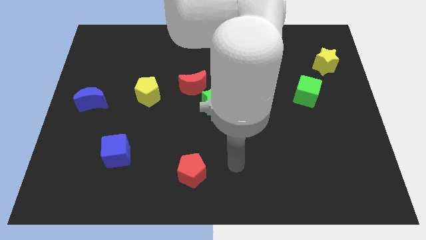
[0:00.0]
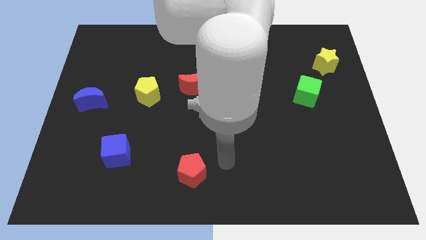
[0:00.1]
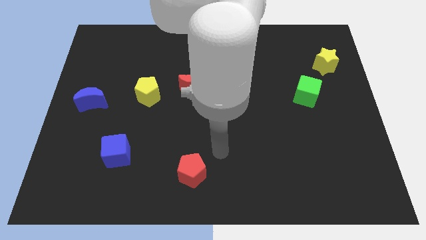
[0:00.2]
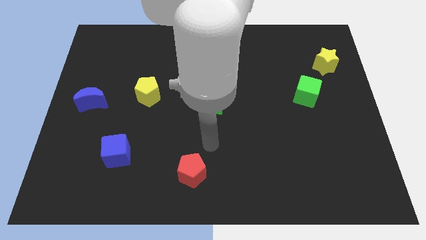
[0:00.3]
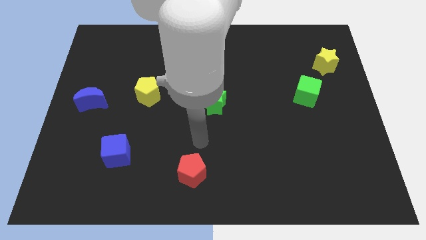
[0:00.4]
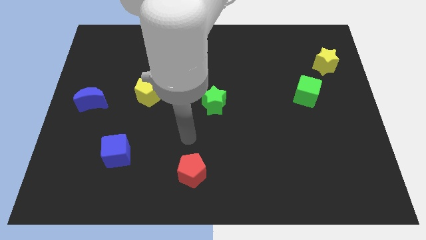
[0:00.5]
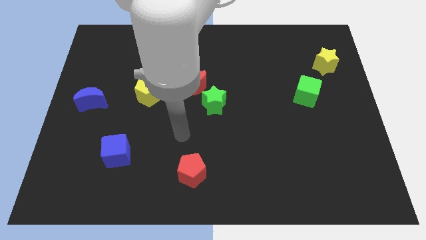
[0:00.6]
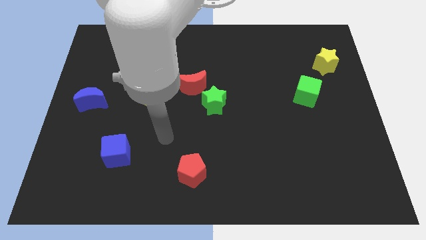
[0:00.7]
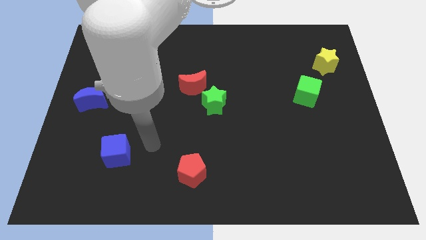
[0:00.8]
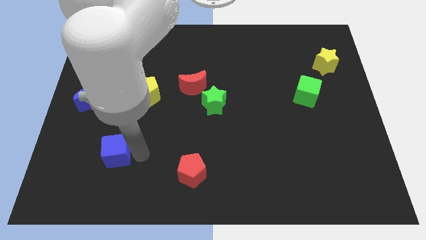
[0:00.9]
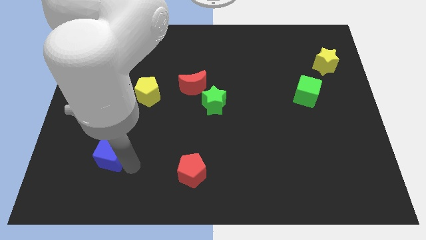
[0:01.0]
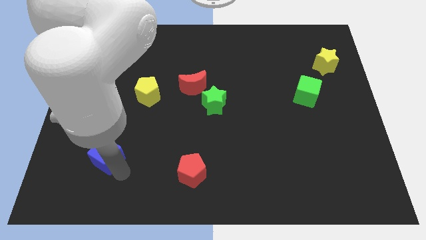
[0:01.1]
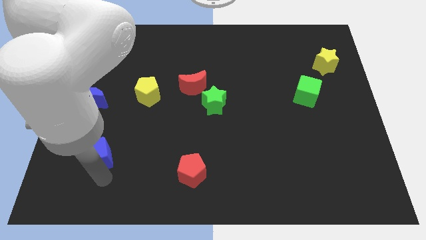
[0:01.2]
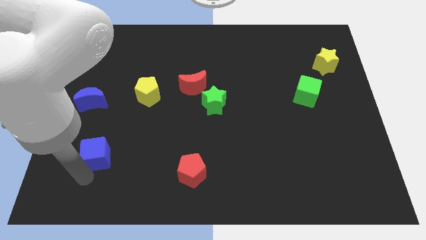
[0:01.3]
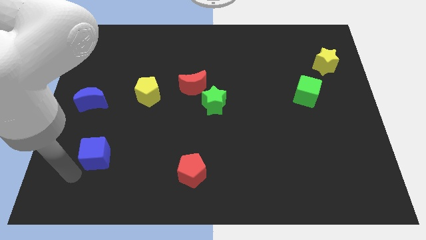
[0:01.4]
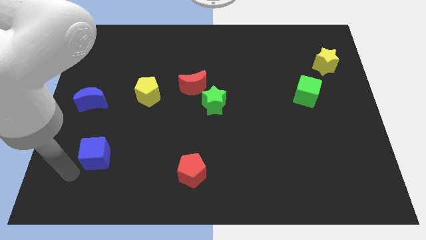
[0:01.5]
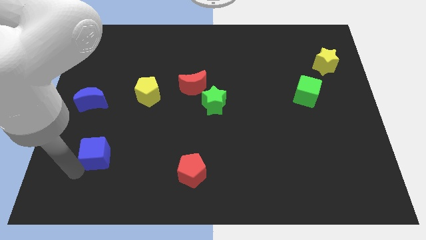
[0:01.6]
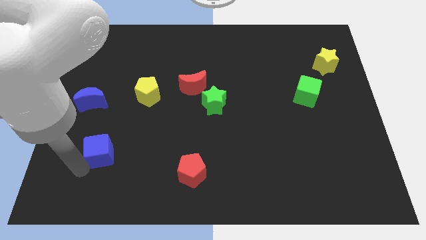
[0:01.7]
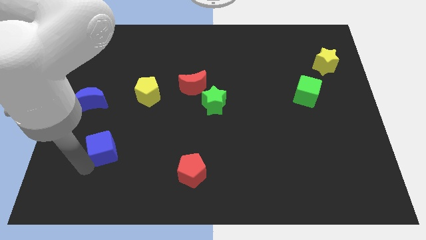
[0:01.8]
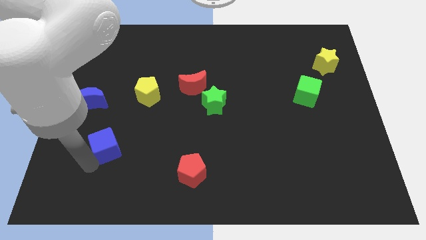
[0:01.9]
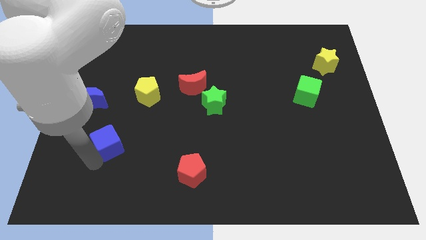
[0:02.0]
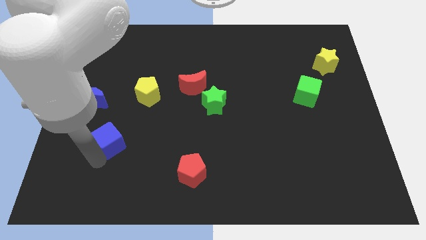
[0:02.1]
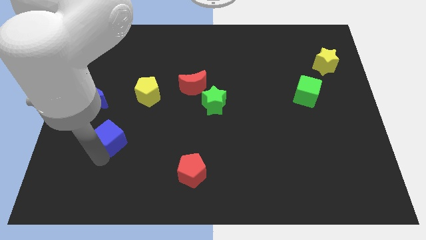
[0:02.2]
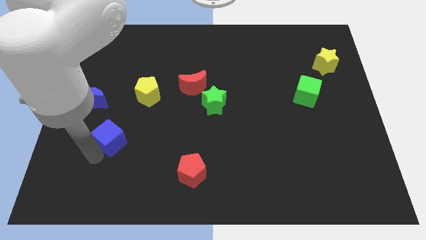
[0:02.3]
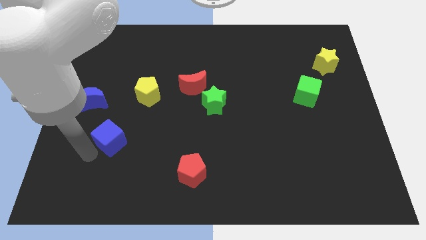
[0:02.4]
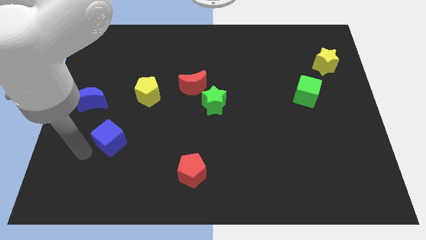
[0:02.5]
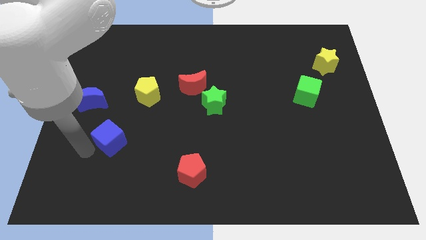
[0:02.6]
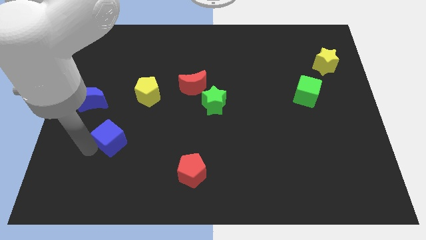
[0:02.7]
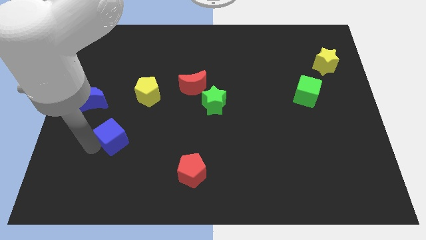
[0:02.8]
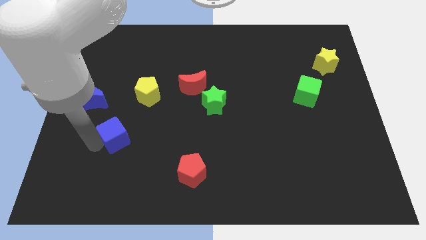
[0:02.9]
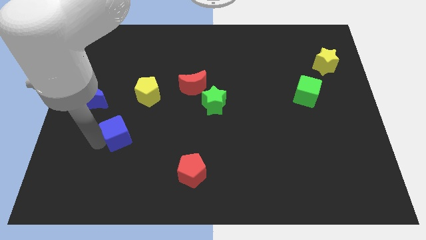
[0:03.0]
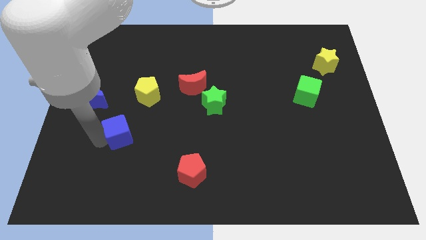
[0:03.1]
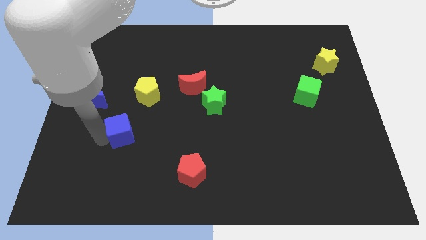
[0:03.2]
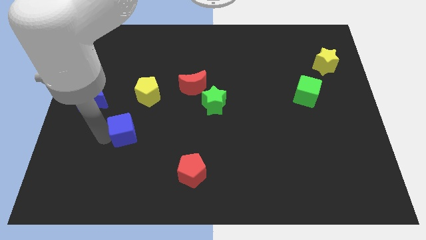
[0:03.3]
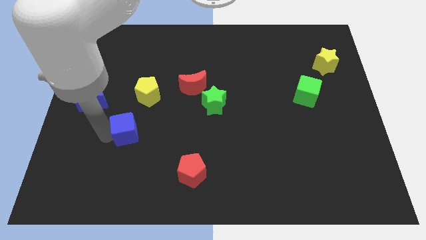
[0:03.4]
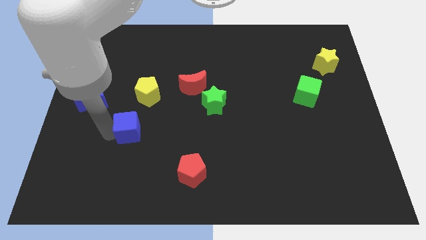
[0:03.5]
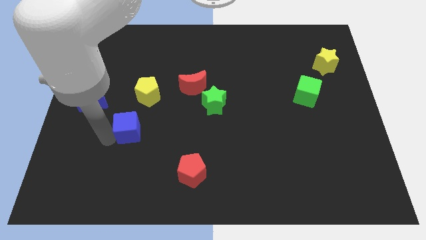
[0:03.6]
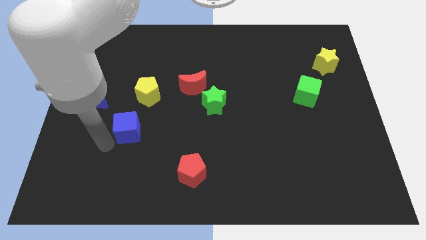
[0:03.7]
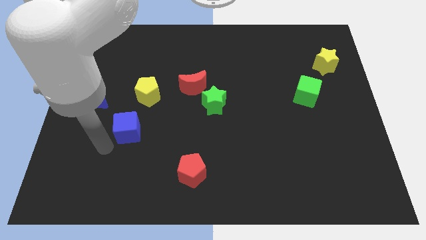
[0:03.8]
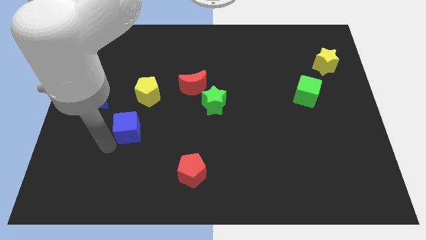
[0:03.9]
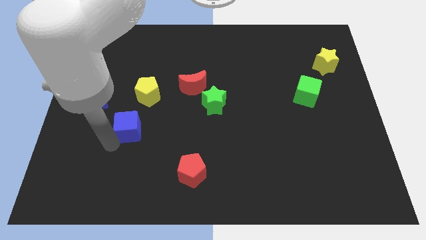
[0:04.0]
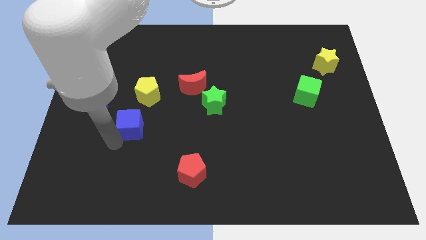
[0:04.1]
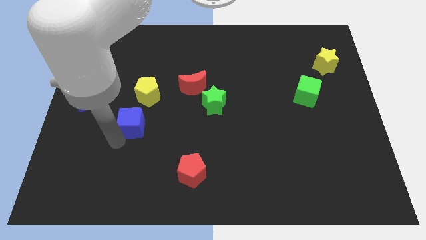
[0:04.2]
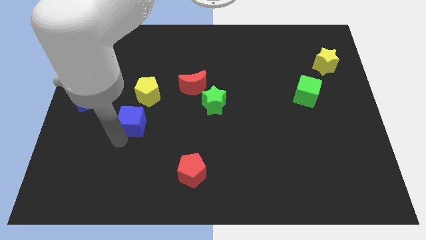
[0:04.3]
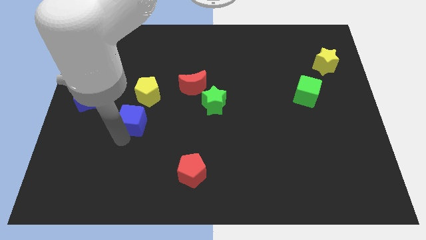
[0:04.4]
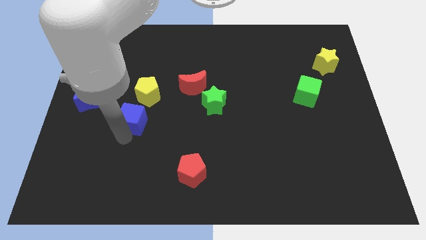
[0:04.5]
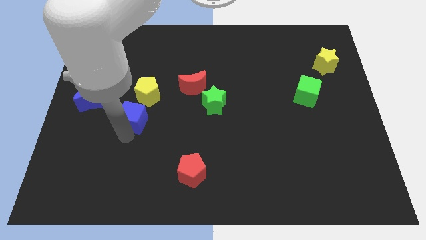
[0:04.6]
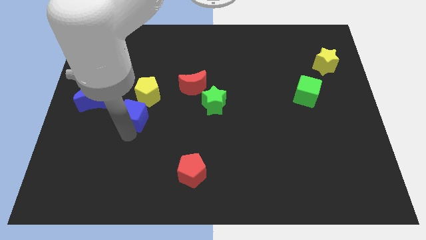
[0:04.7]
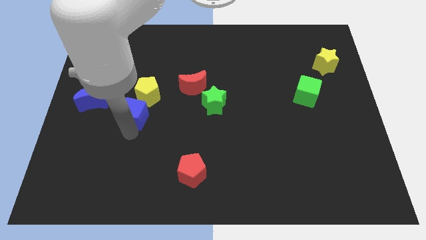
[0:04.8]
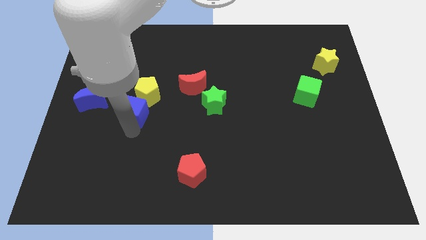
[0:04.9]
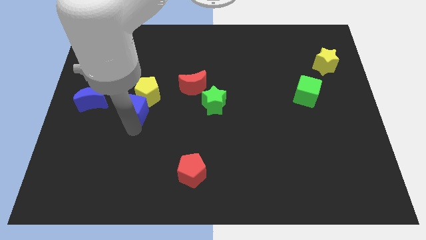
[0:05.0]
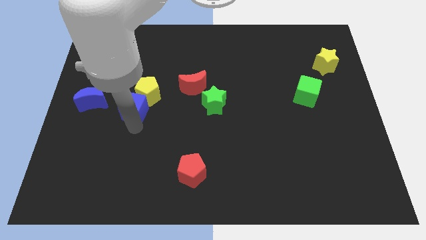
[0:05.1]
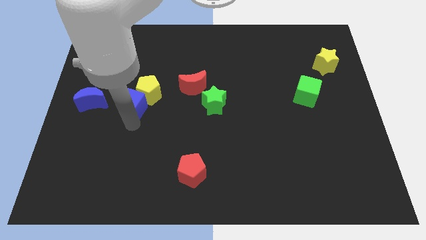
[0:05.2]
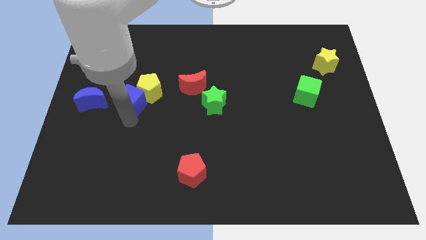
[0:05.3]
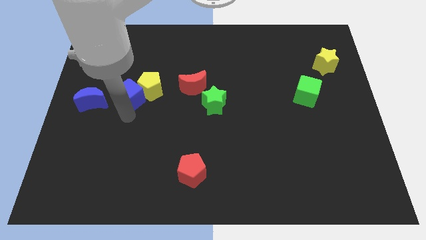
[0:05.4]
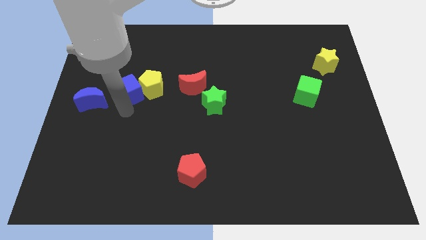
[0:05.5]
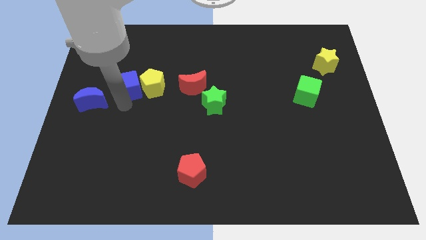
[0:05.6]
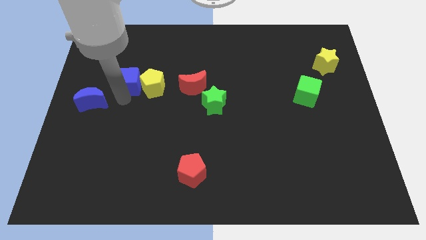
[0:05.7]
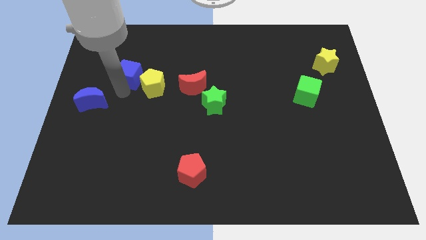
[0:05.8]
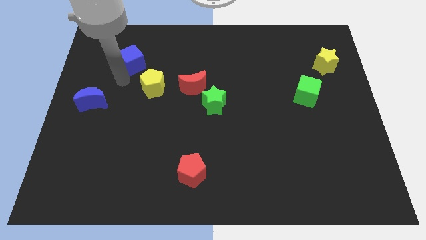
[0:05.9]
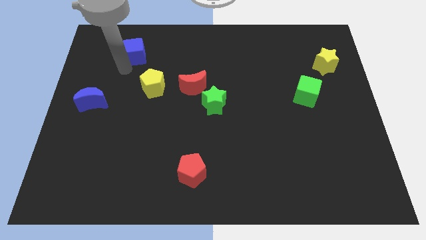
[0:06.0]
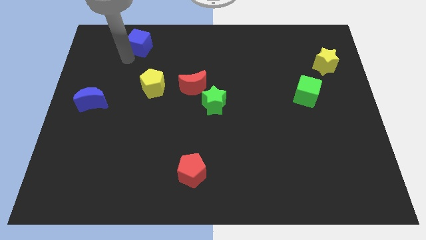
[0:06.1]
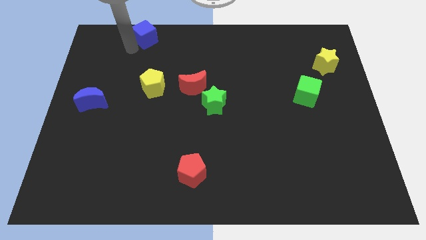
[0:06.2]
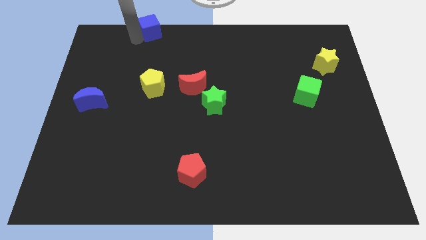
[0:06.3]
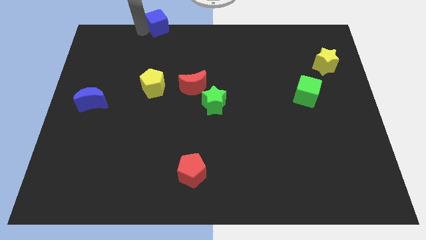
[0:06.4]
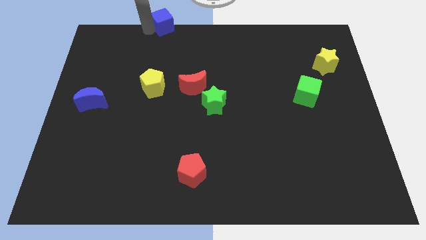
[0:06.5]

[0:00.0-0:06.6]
slide the blue cube to the towards your base
